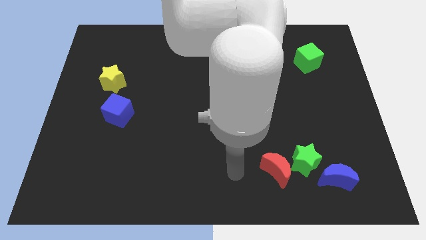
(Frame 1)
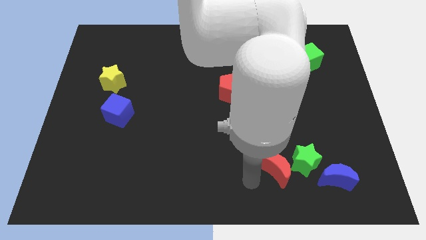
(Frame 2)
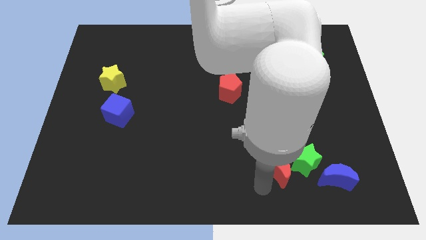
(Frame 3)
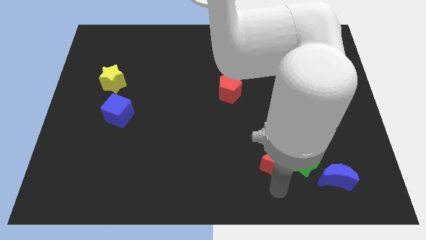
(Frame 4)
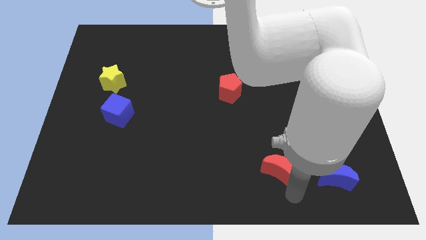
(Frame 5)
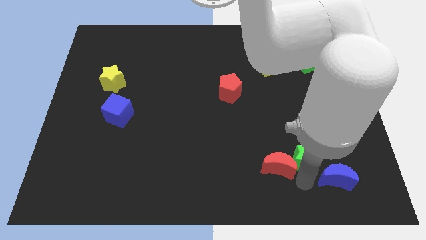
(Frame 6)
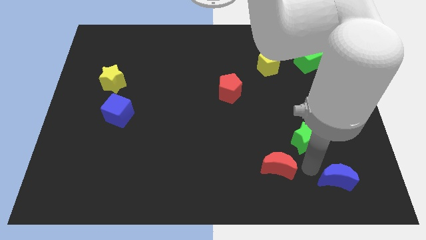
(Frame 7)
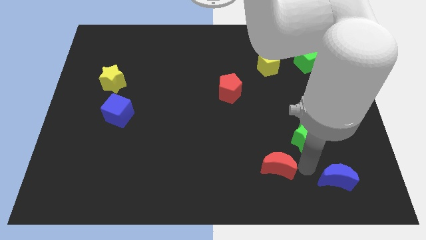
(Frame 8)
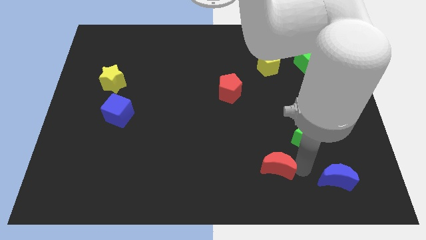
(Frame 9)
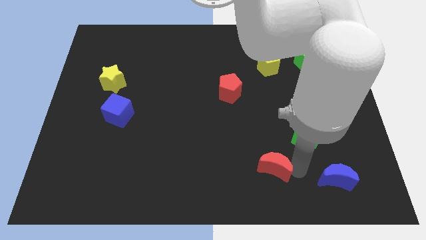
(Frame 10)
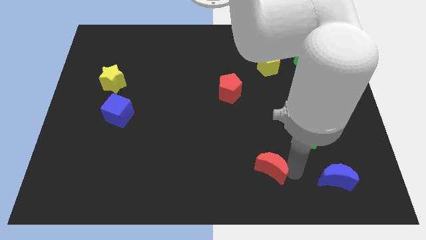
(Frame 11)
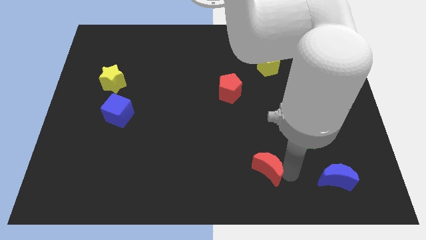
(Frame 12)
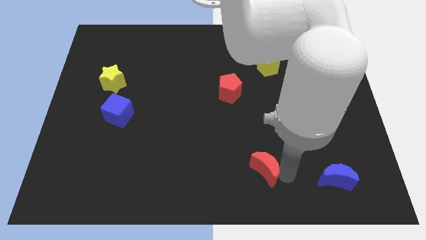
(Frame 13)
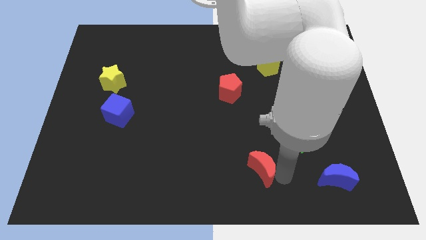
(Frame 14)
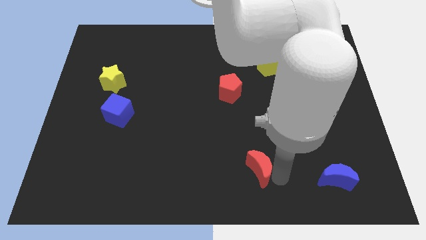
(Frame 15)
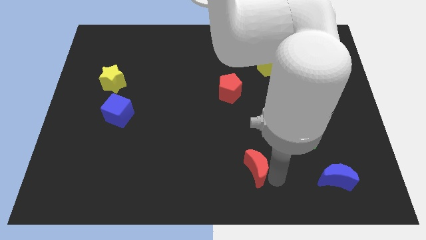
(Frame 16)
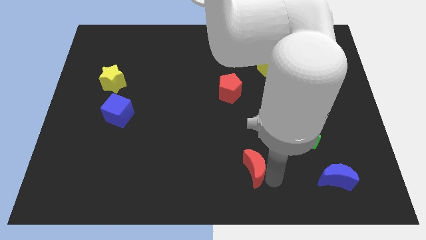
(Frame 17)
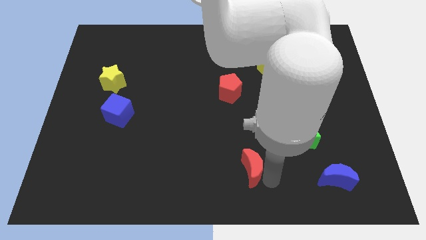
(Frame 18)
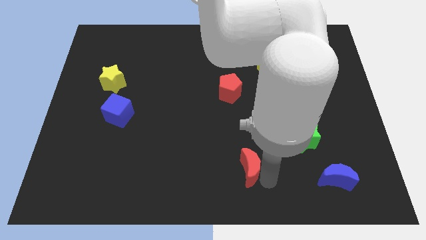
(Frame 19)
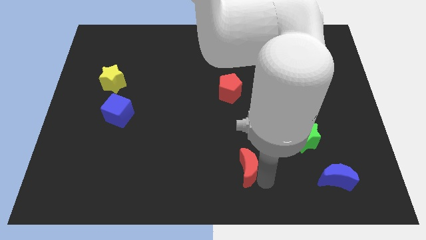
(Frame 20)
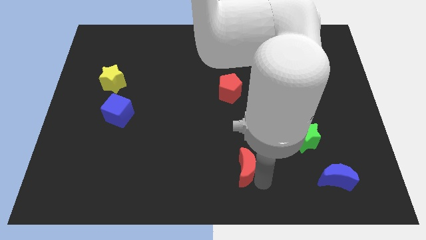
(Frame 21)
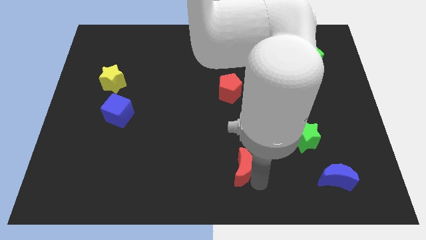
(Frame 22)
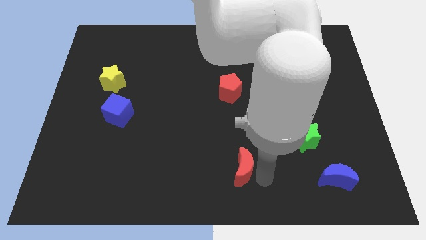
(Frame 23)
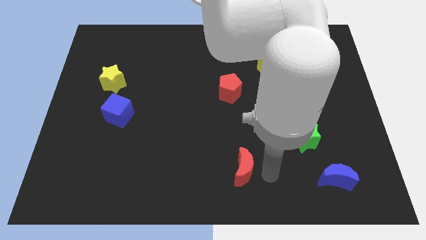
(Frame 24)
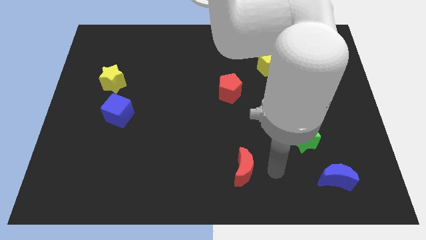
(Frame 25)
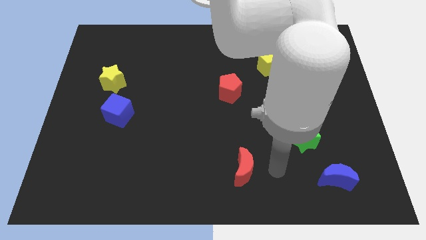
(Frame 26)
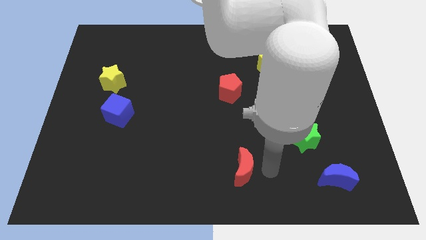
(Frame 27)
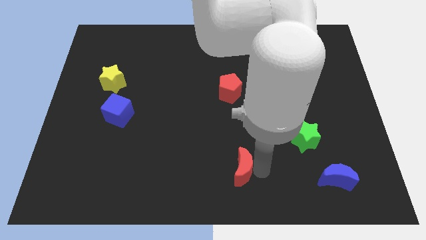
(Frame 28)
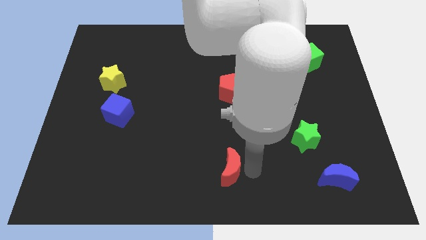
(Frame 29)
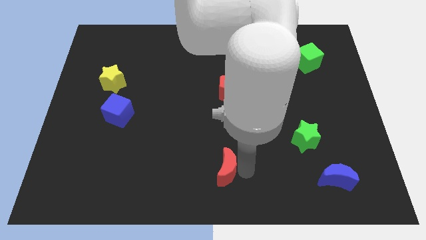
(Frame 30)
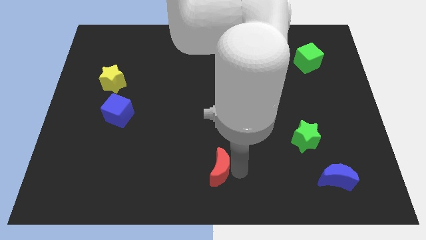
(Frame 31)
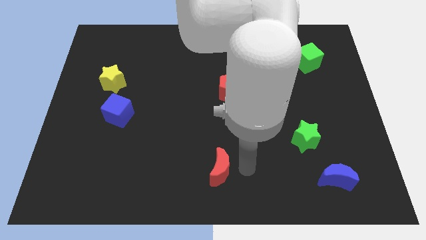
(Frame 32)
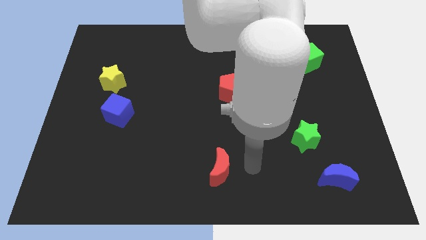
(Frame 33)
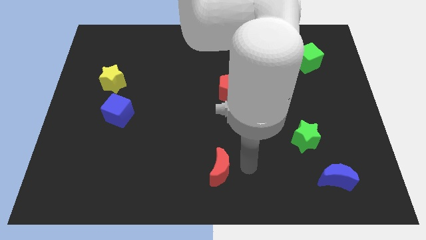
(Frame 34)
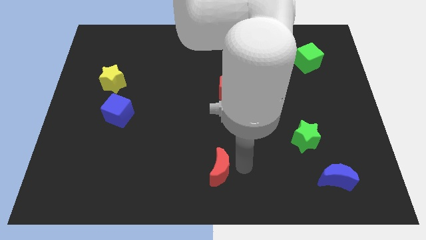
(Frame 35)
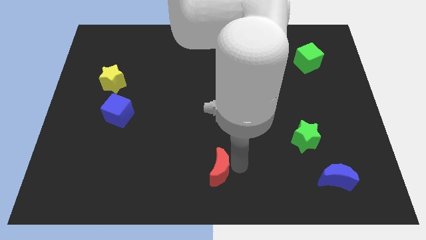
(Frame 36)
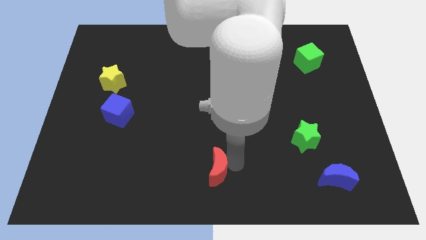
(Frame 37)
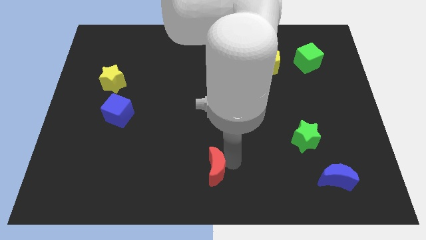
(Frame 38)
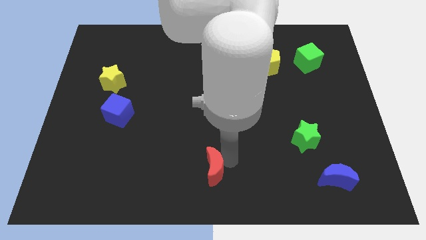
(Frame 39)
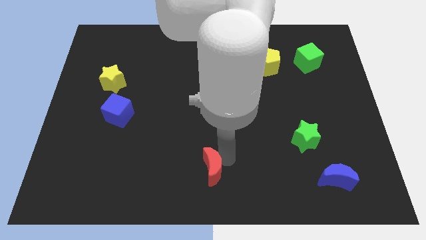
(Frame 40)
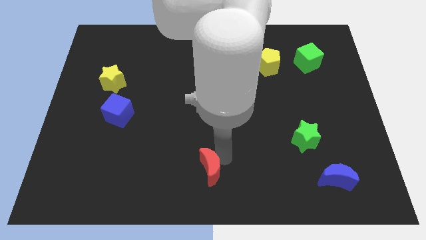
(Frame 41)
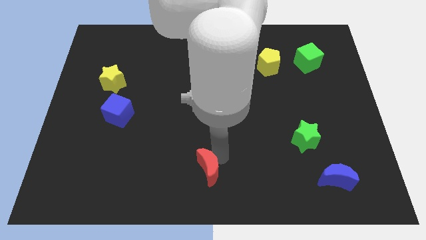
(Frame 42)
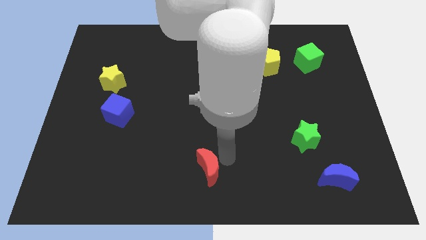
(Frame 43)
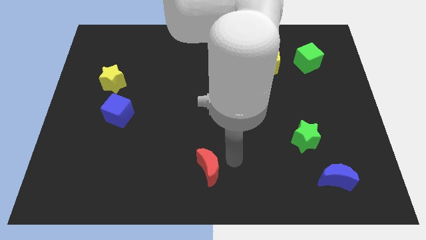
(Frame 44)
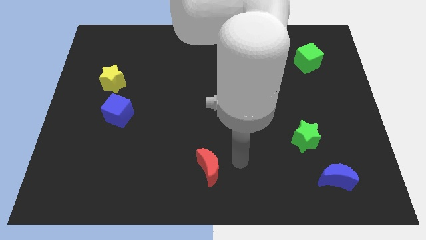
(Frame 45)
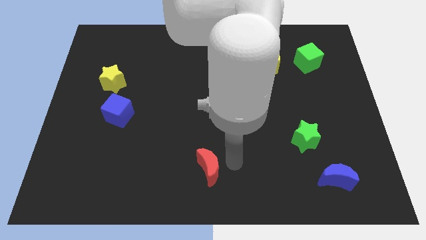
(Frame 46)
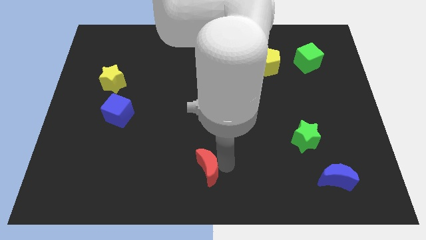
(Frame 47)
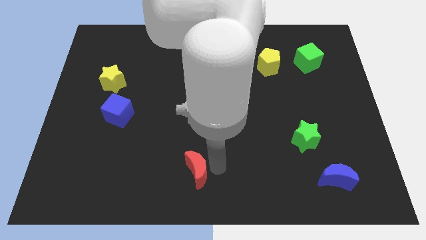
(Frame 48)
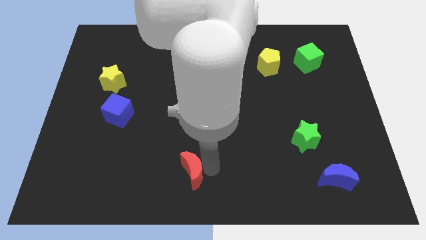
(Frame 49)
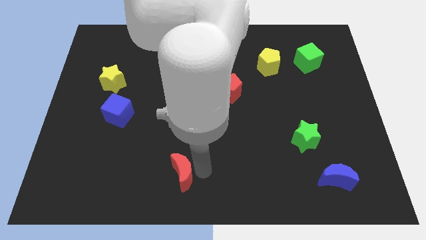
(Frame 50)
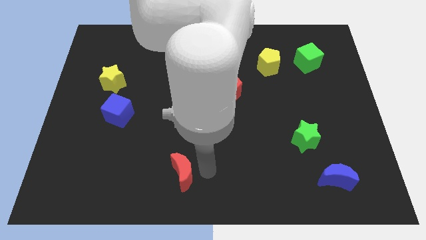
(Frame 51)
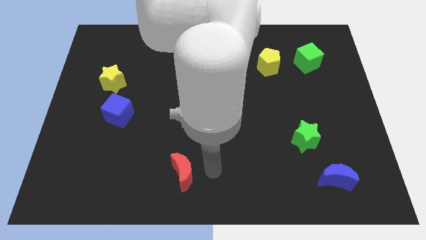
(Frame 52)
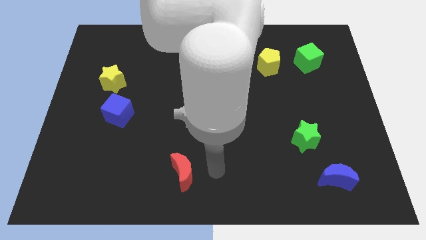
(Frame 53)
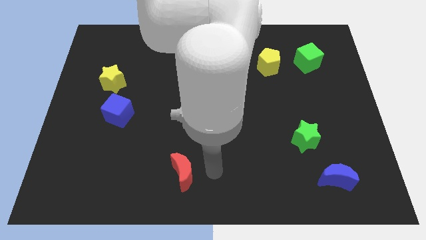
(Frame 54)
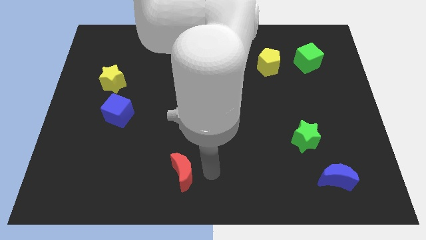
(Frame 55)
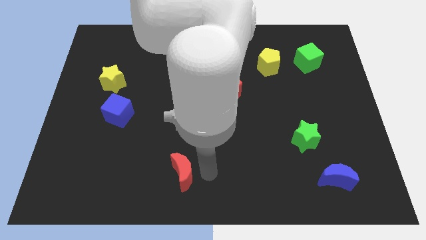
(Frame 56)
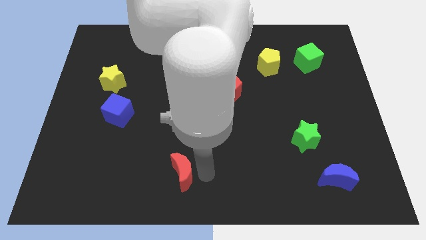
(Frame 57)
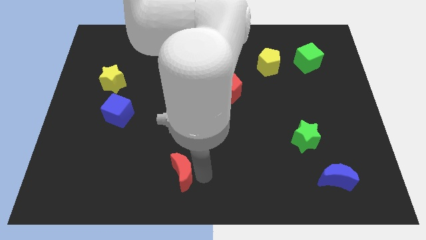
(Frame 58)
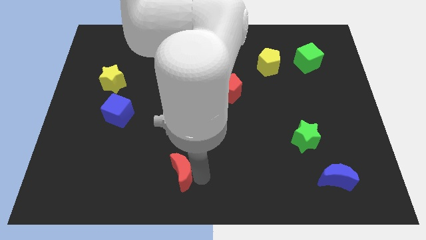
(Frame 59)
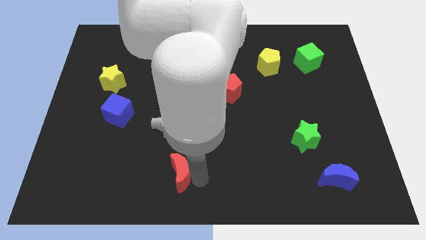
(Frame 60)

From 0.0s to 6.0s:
push the red moon to the left

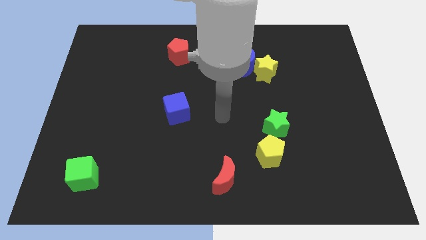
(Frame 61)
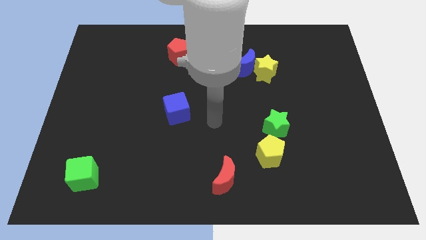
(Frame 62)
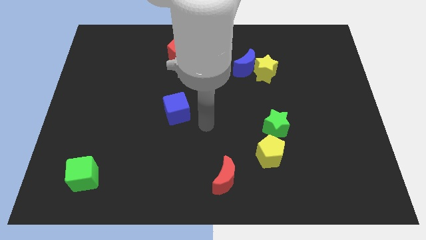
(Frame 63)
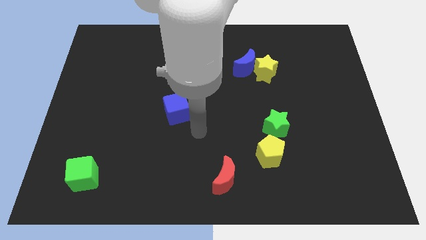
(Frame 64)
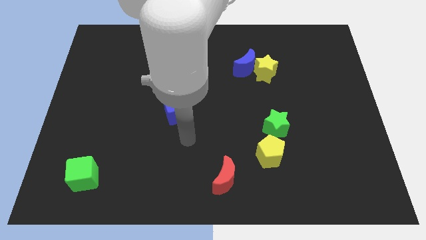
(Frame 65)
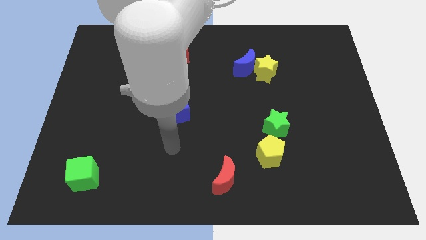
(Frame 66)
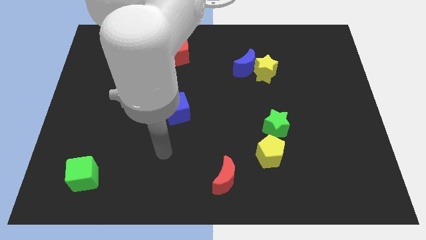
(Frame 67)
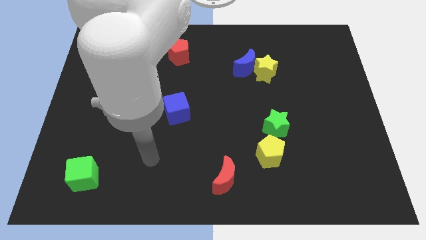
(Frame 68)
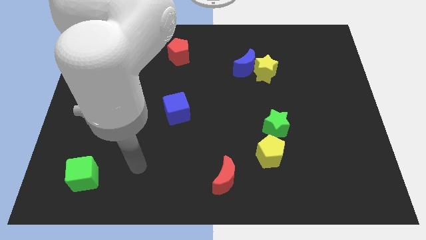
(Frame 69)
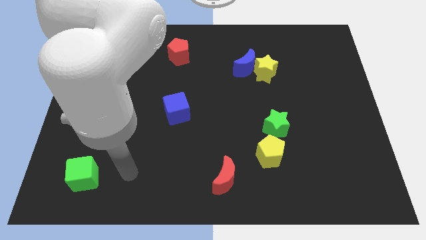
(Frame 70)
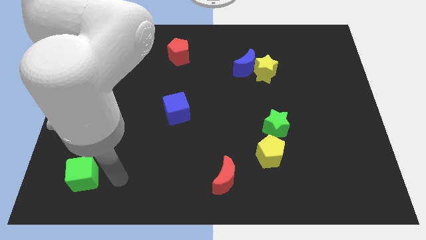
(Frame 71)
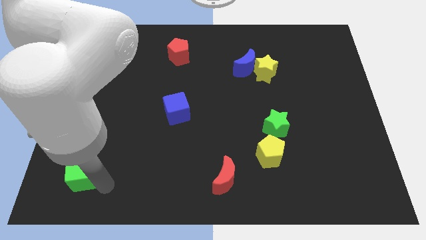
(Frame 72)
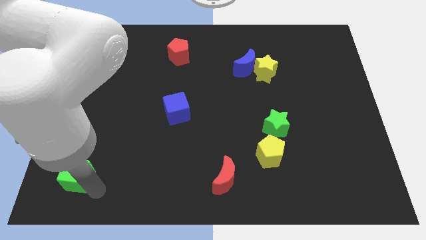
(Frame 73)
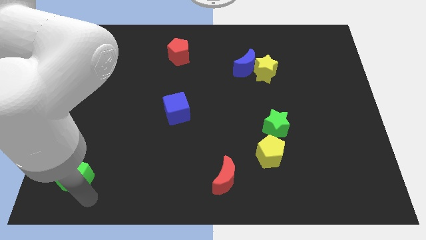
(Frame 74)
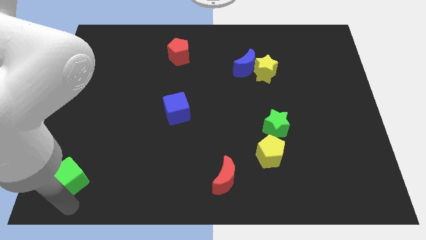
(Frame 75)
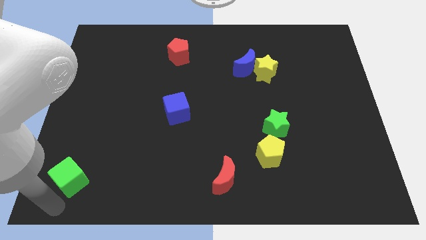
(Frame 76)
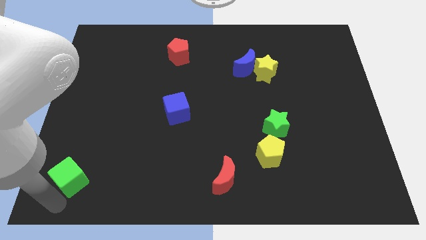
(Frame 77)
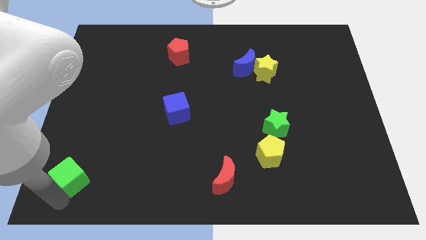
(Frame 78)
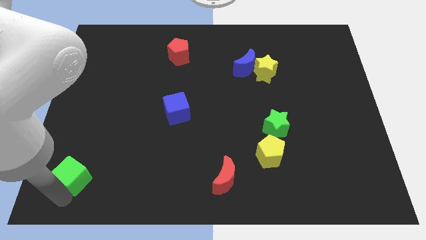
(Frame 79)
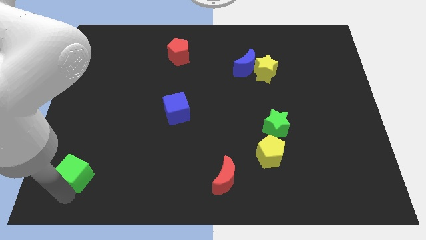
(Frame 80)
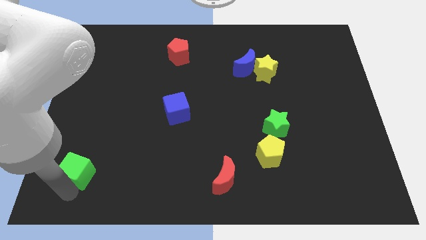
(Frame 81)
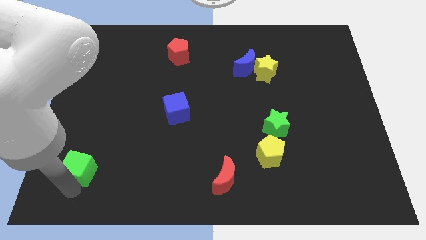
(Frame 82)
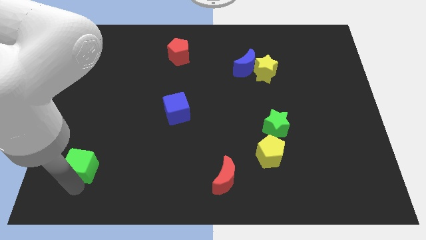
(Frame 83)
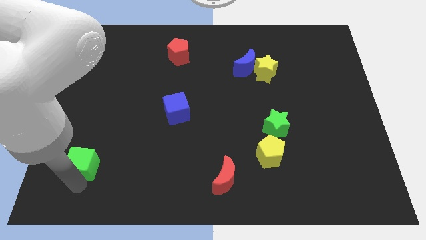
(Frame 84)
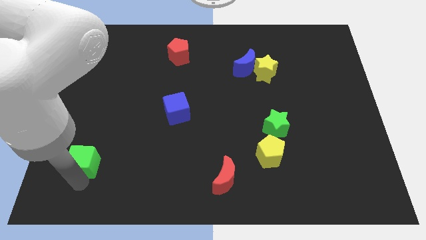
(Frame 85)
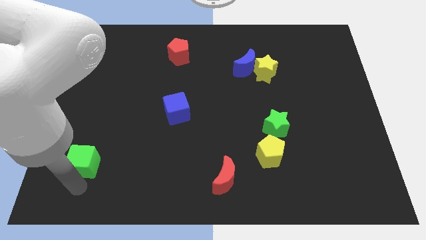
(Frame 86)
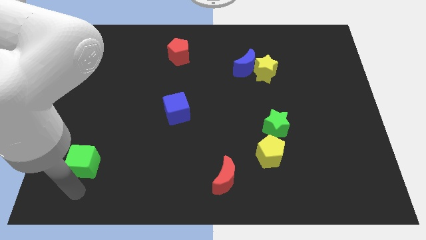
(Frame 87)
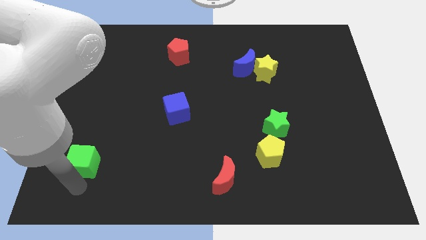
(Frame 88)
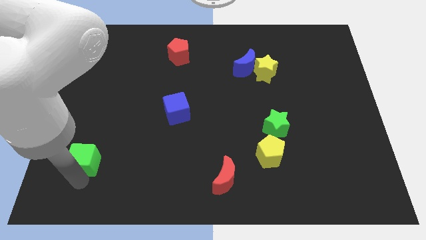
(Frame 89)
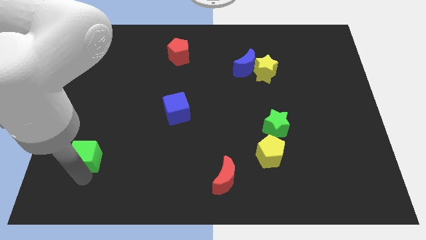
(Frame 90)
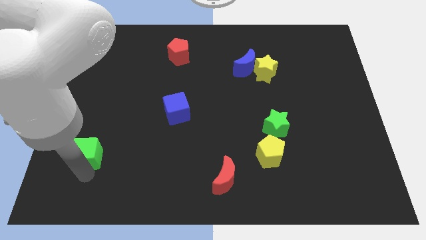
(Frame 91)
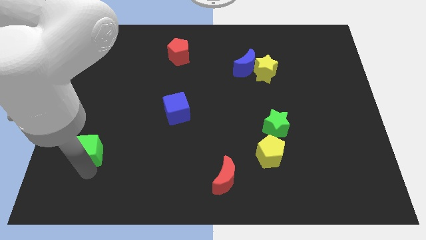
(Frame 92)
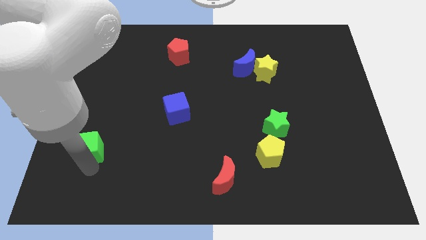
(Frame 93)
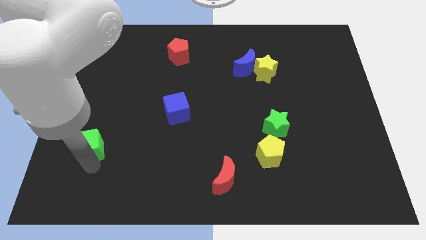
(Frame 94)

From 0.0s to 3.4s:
slightly slide the green cube up
